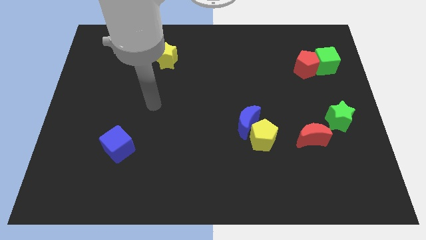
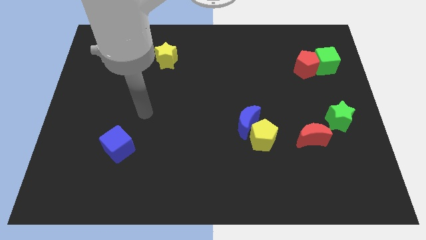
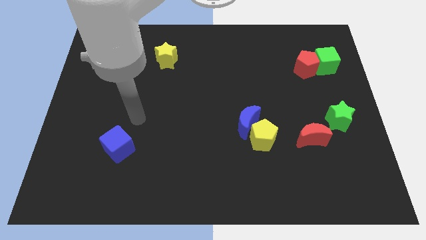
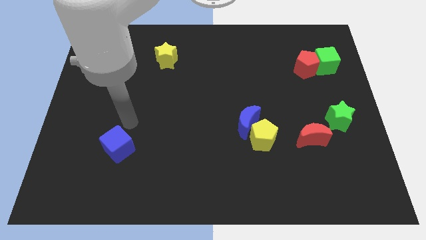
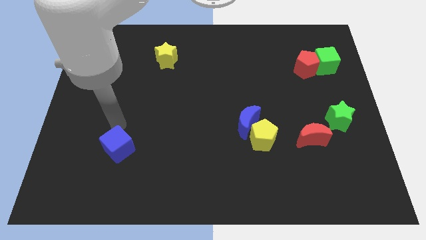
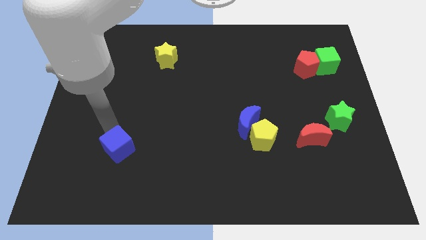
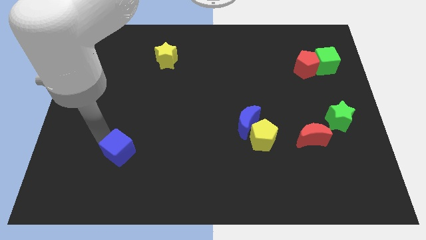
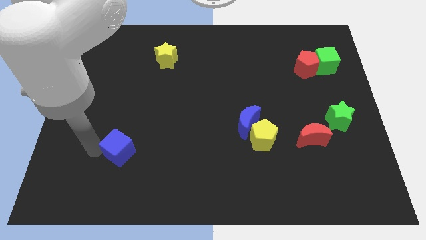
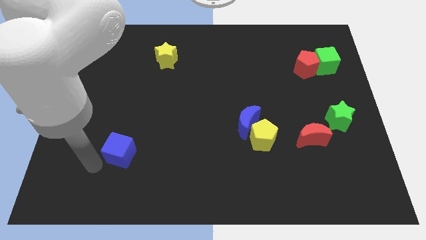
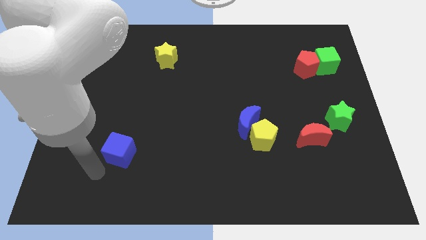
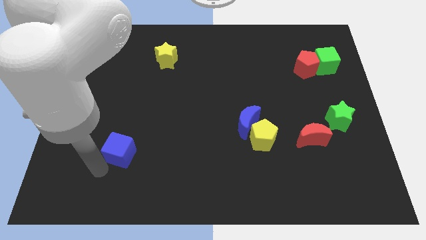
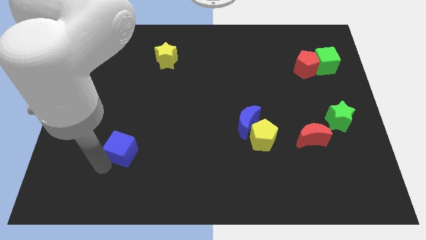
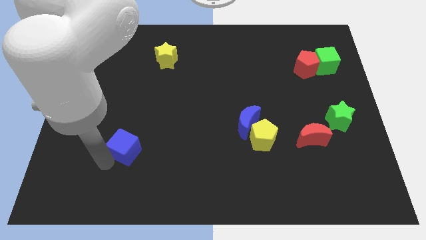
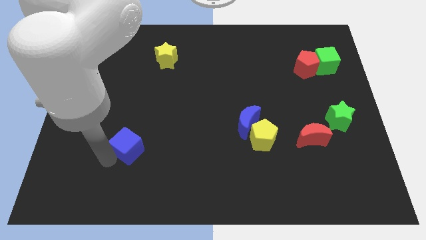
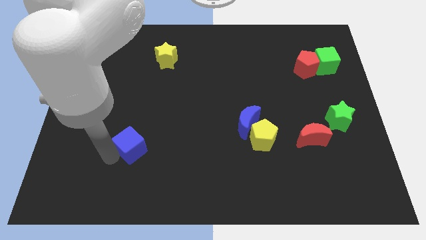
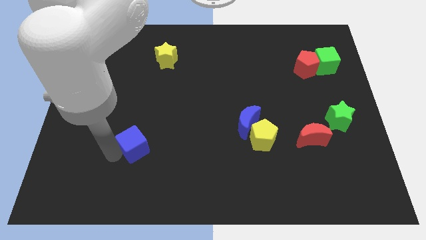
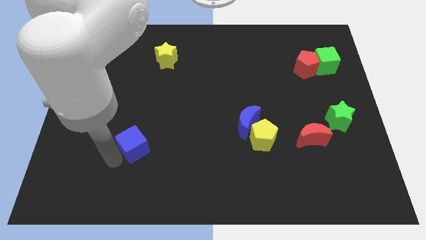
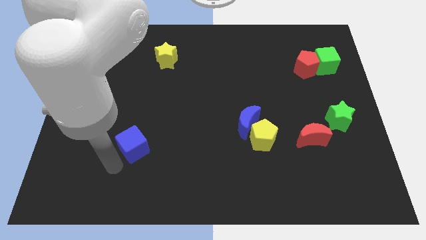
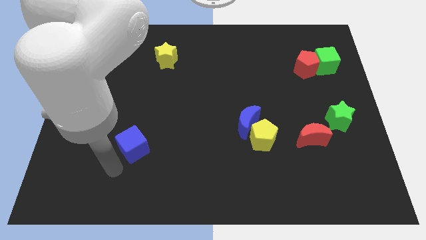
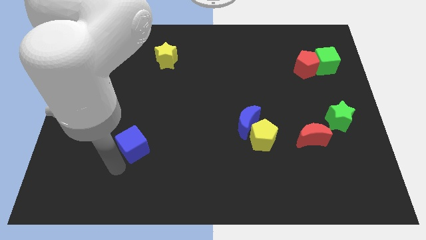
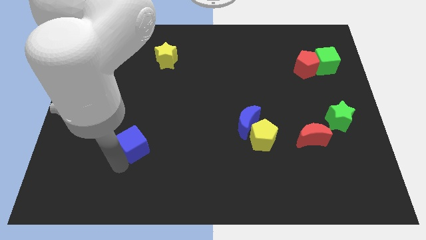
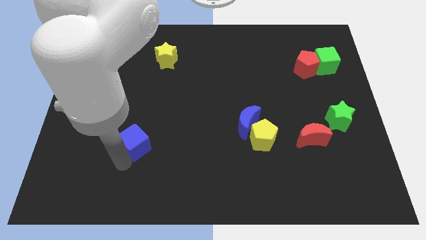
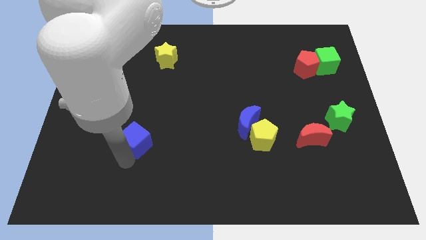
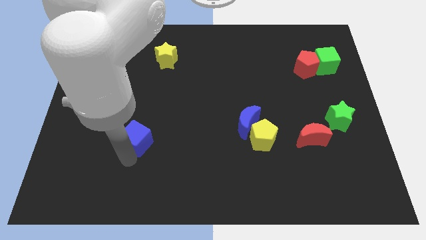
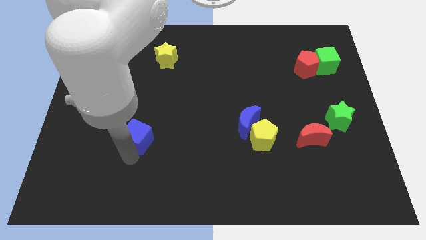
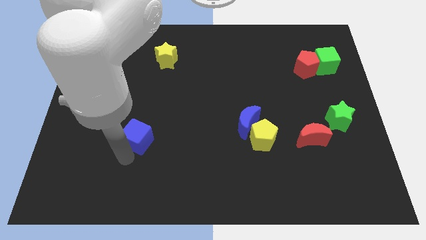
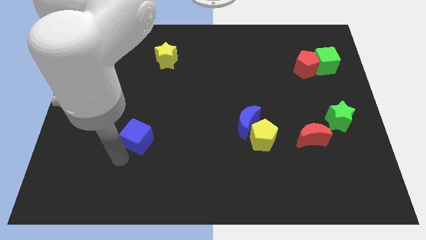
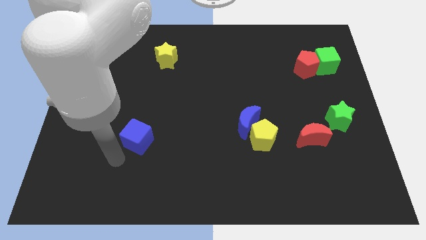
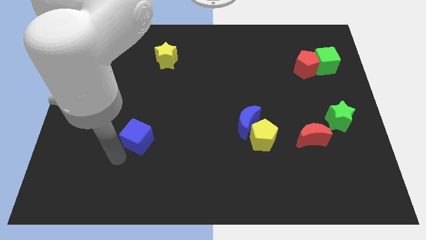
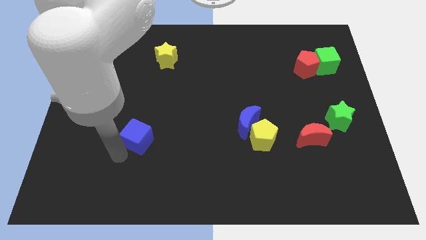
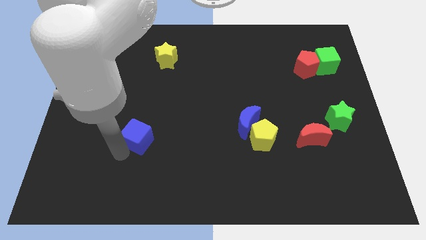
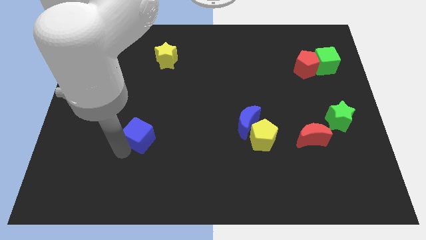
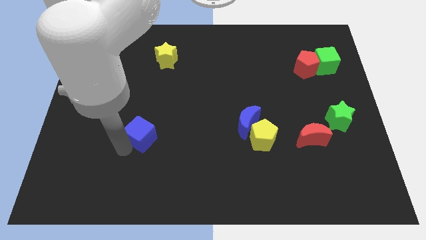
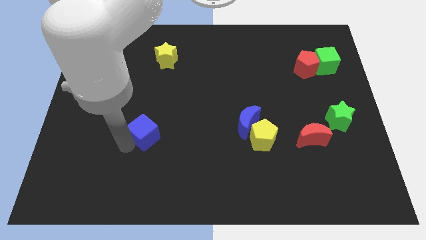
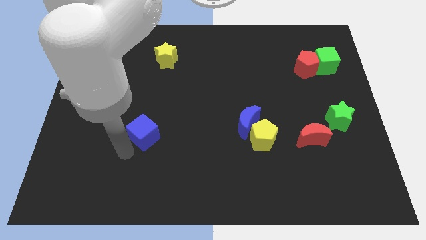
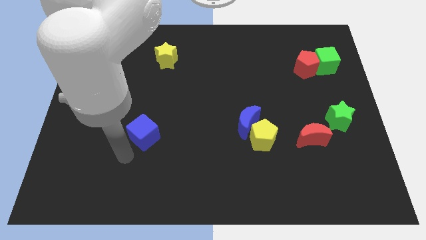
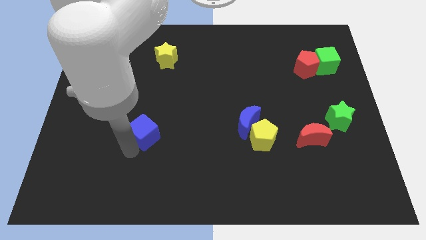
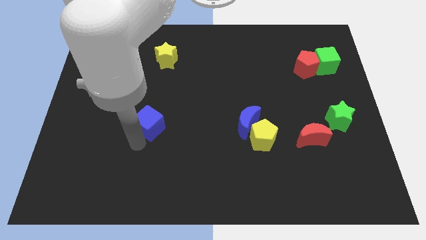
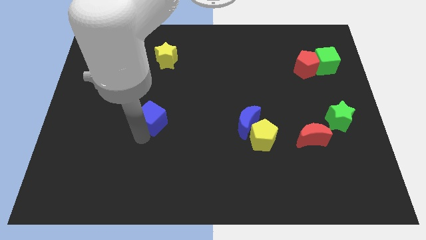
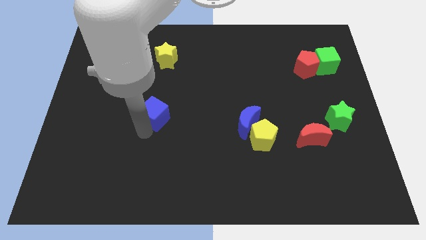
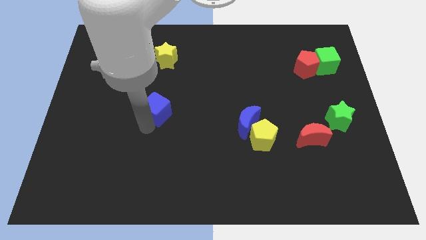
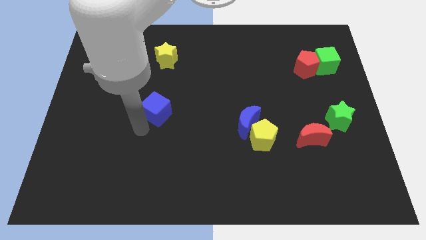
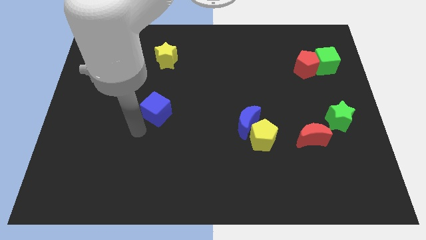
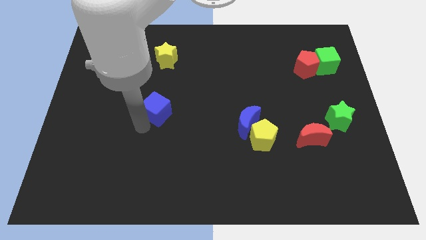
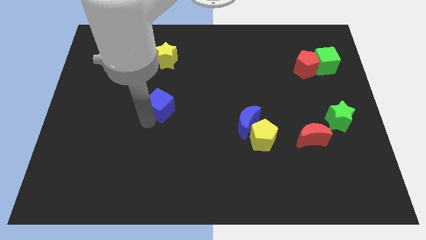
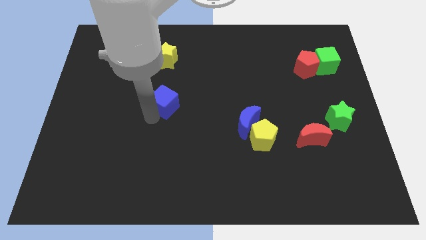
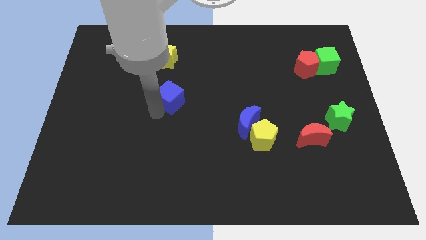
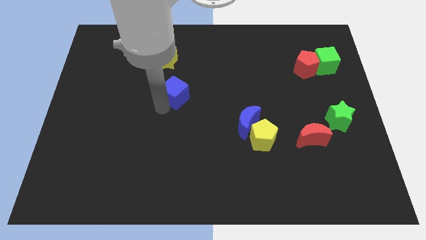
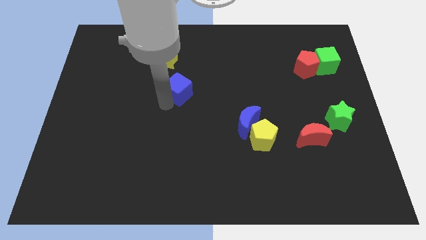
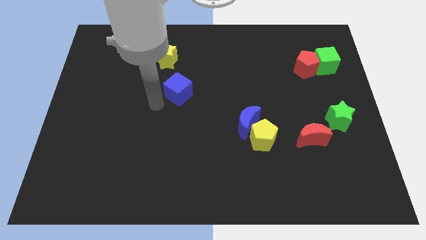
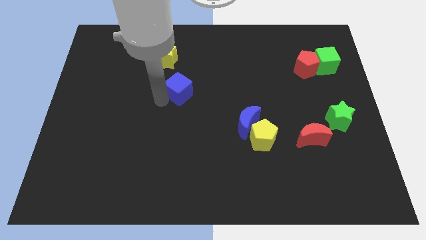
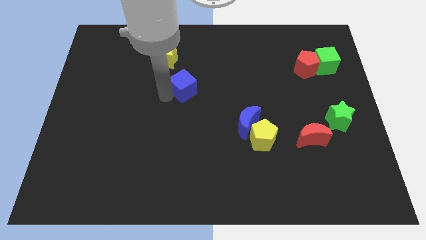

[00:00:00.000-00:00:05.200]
slide the blue cube up and right

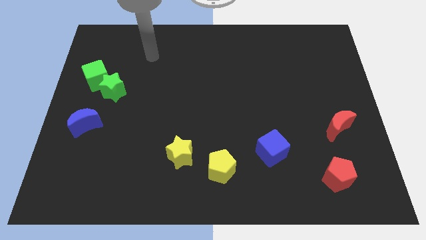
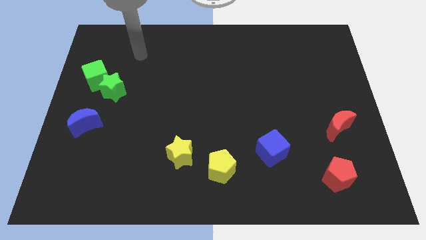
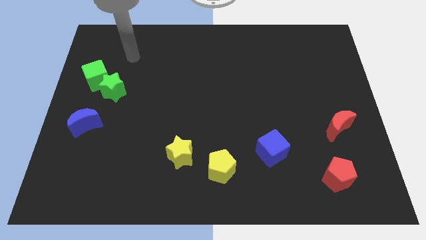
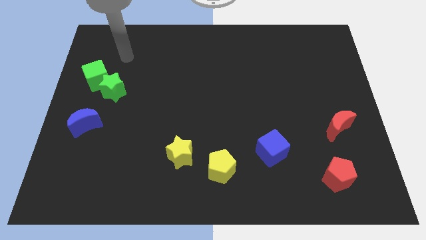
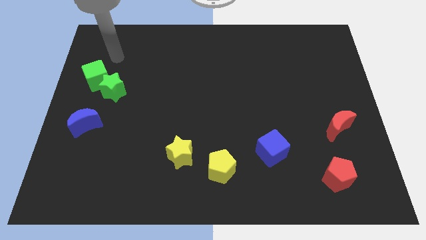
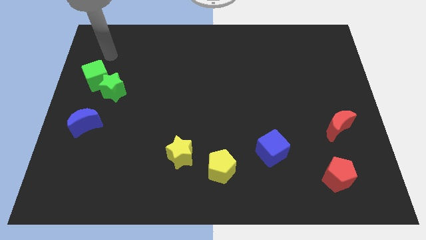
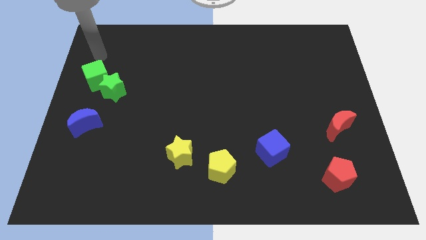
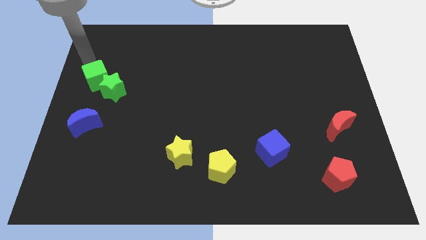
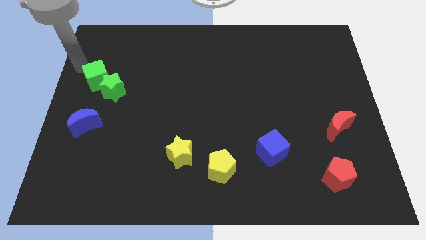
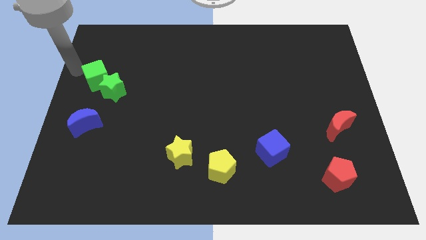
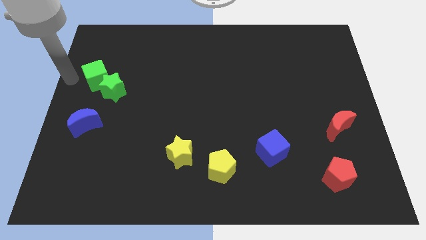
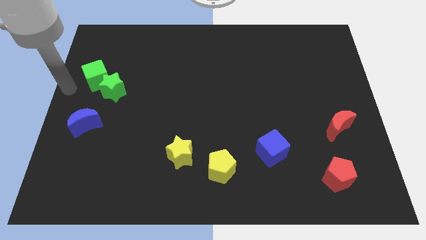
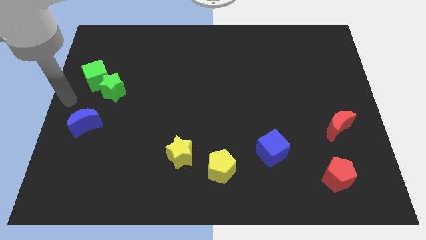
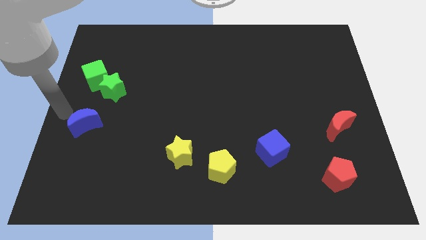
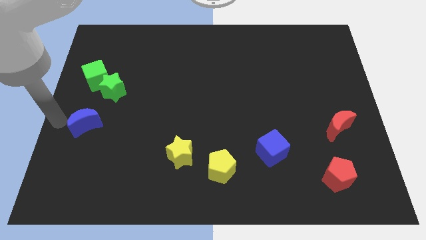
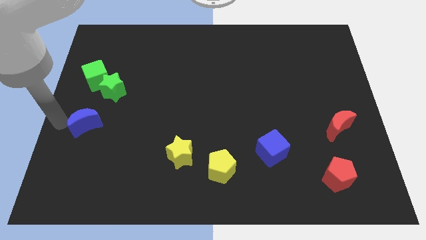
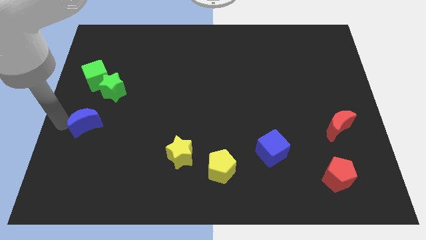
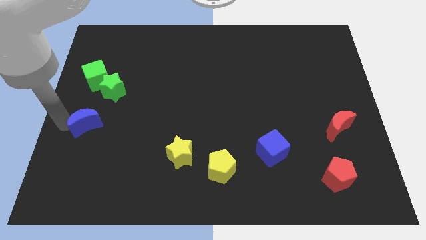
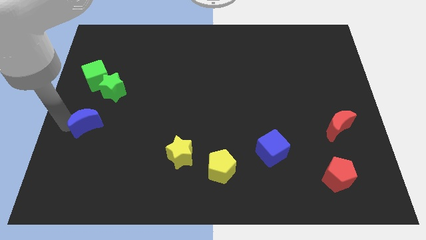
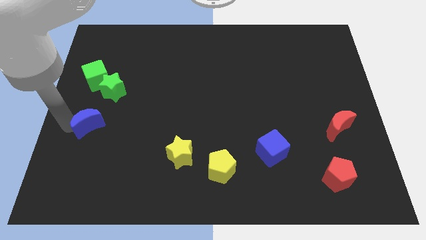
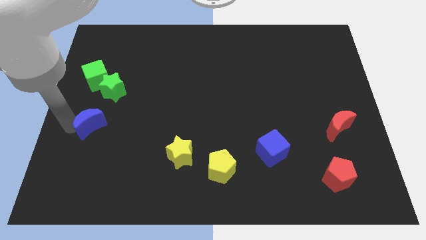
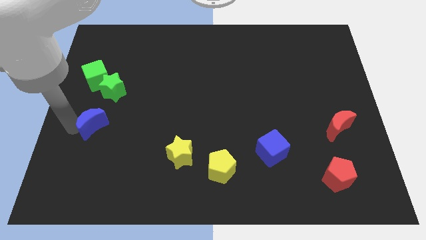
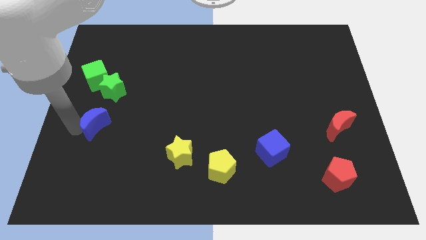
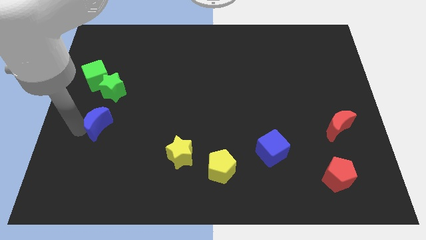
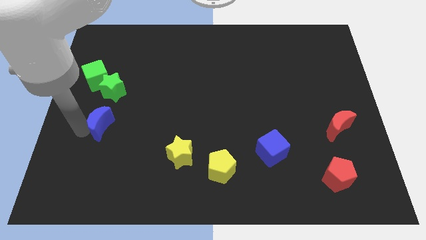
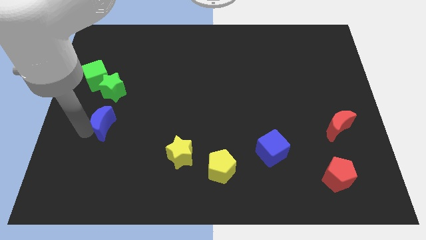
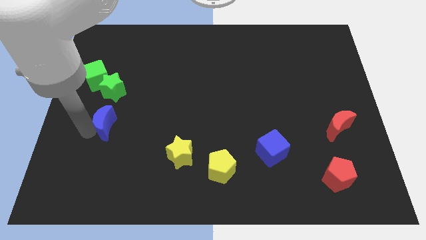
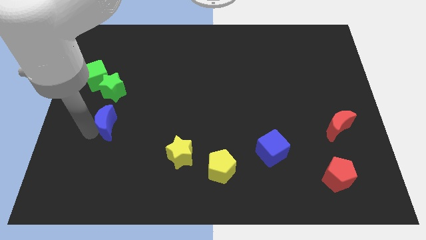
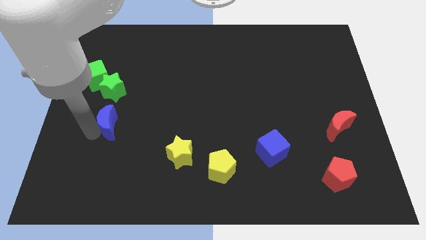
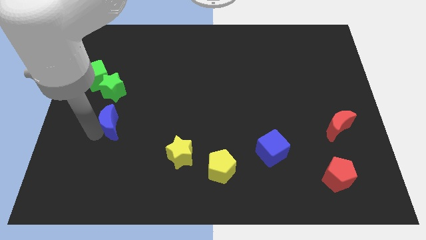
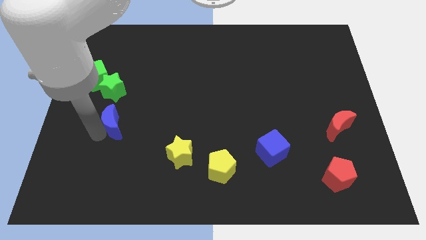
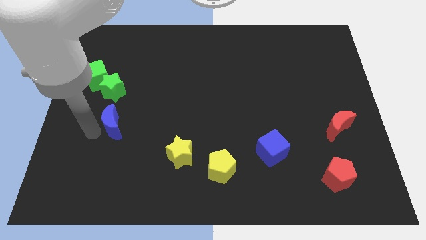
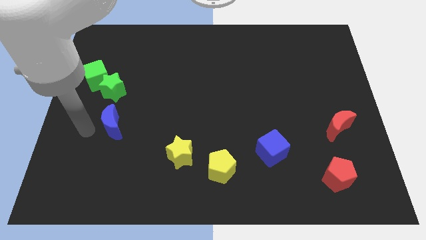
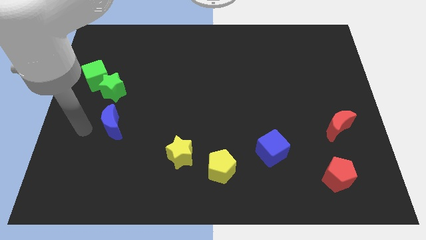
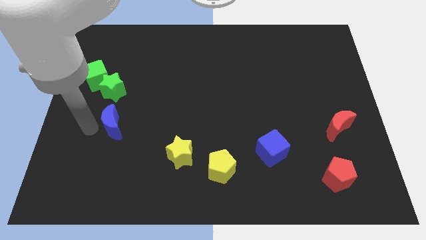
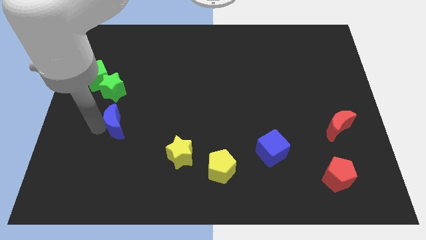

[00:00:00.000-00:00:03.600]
slightly move the blue moon right
